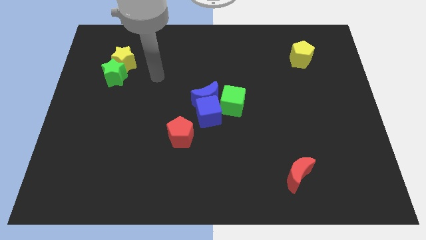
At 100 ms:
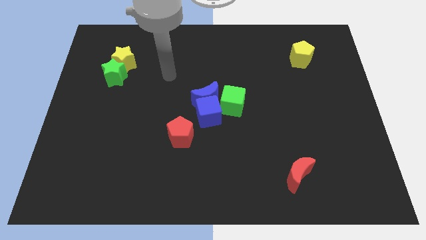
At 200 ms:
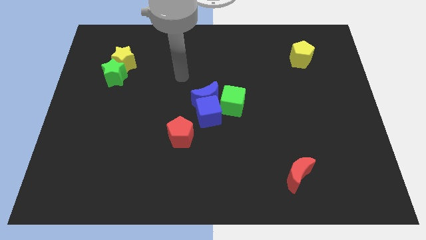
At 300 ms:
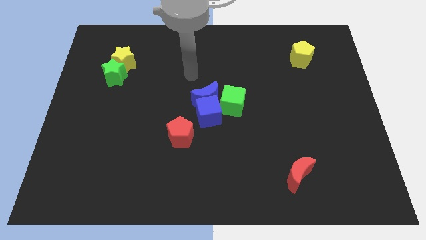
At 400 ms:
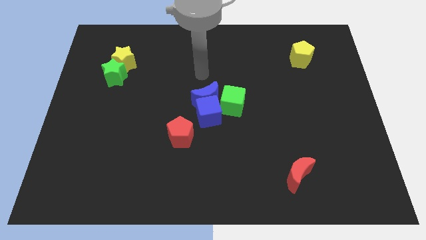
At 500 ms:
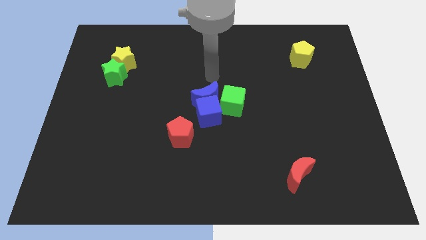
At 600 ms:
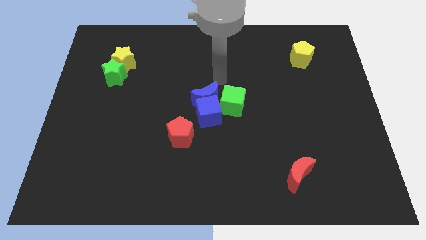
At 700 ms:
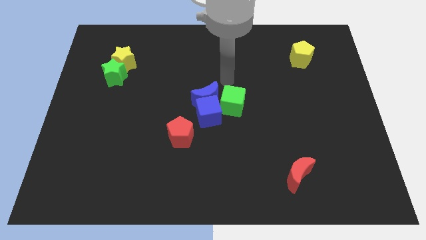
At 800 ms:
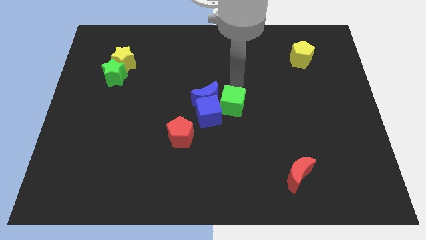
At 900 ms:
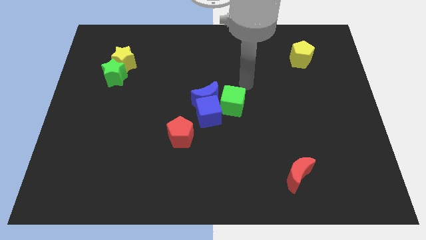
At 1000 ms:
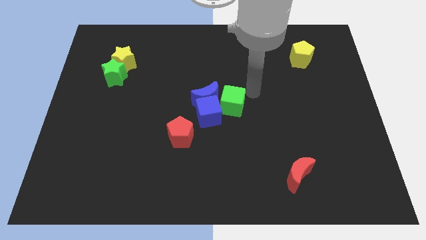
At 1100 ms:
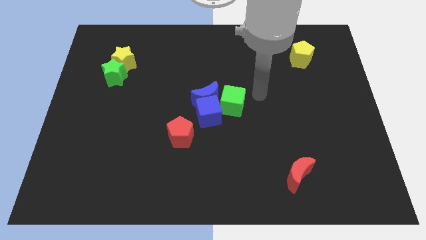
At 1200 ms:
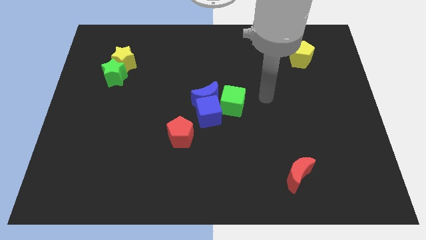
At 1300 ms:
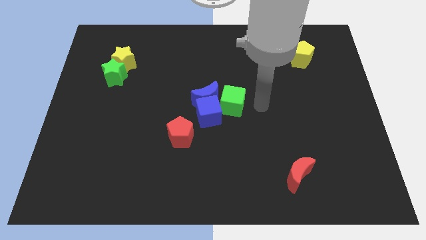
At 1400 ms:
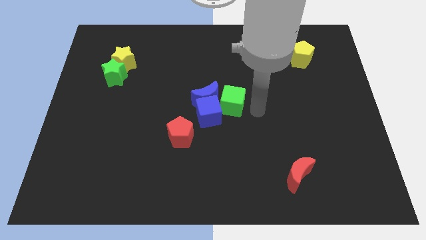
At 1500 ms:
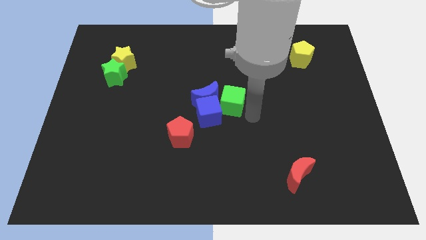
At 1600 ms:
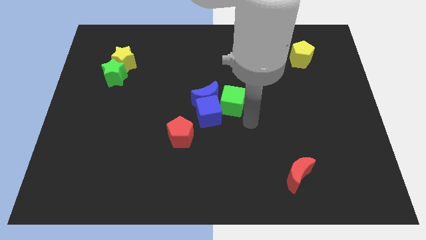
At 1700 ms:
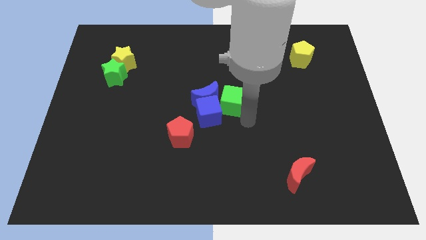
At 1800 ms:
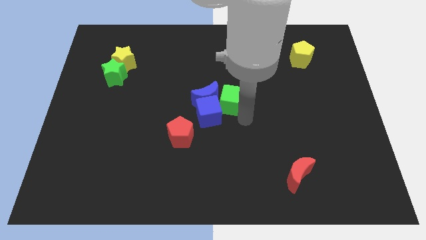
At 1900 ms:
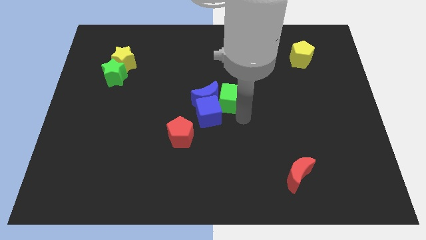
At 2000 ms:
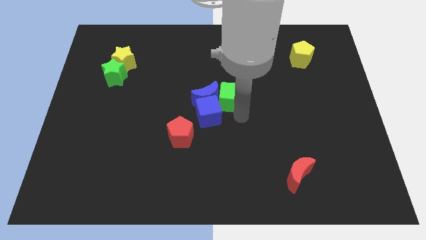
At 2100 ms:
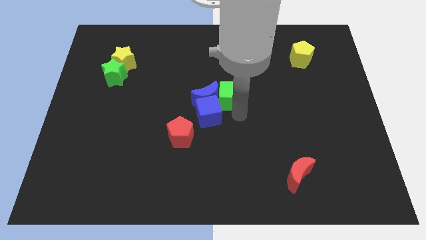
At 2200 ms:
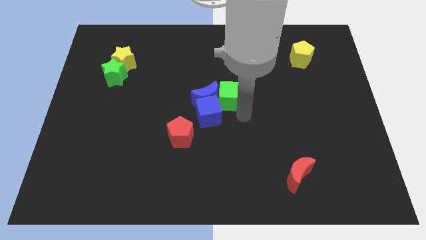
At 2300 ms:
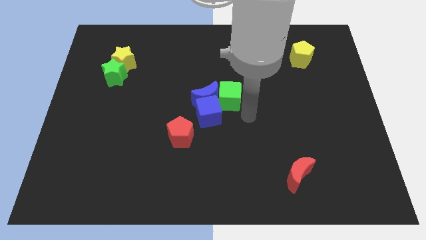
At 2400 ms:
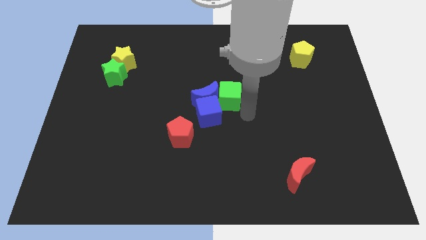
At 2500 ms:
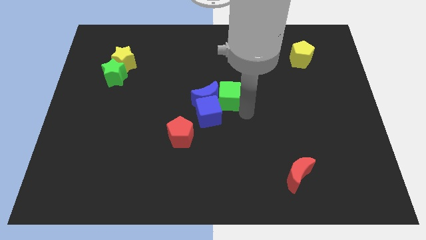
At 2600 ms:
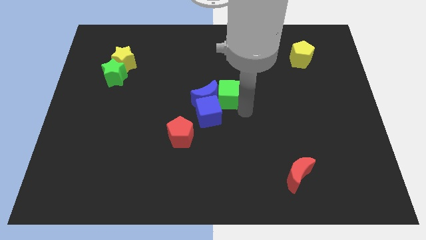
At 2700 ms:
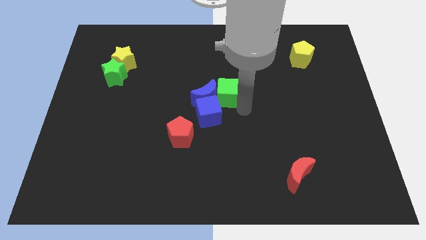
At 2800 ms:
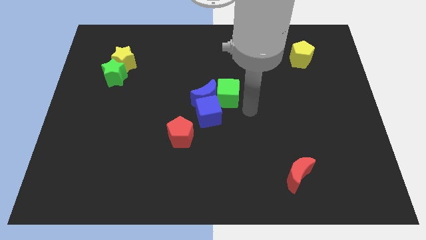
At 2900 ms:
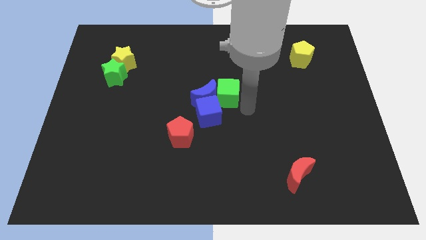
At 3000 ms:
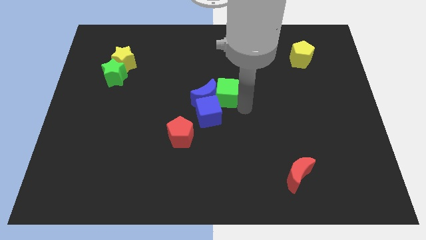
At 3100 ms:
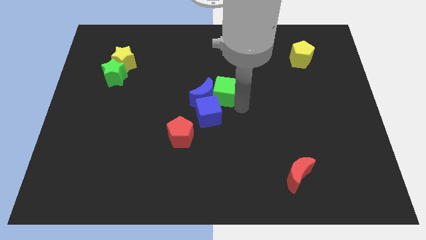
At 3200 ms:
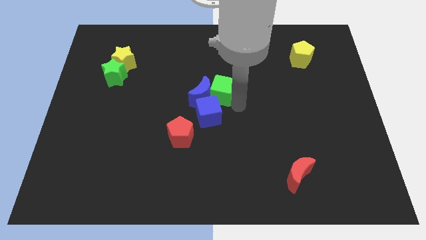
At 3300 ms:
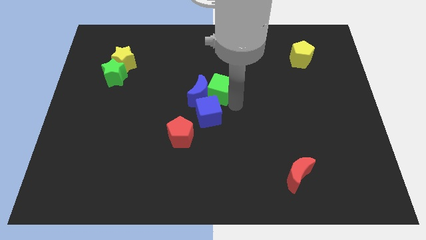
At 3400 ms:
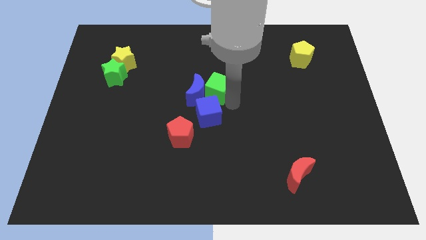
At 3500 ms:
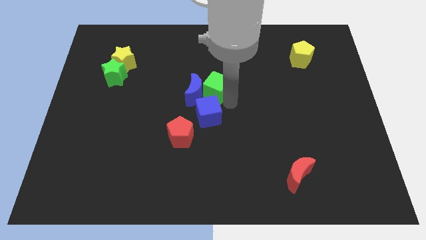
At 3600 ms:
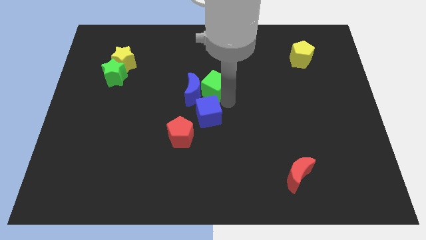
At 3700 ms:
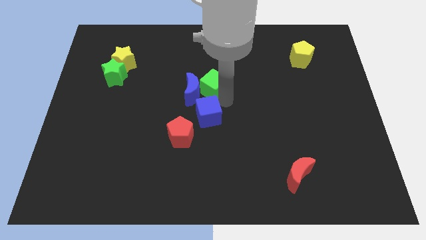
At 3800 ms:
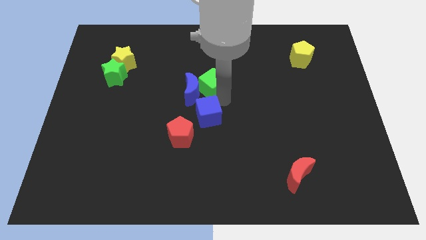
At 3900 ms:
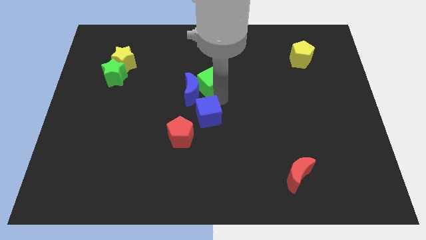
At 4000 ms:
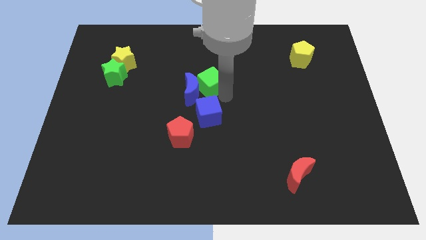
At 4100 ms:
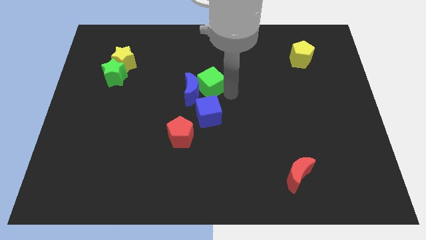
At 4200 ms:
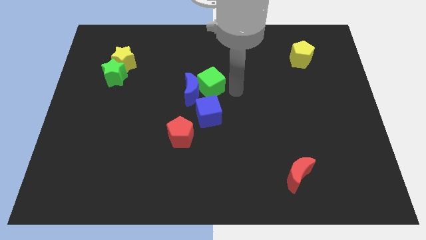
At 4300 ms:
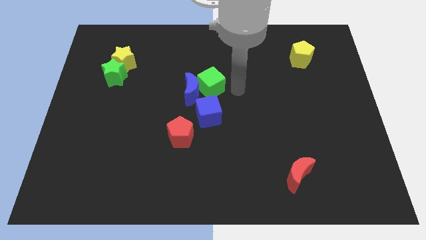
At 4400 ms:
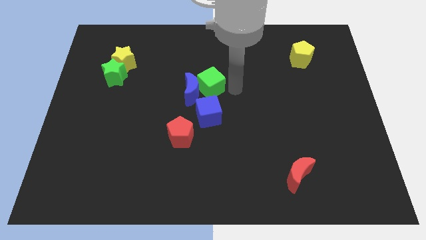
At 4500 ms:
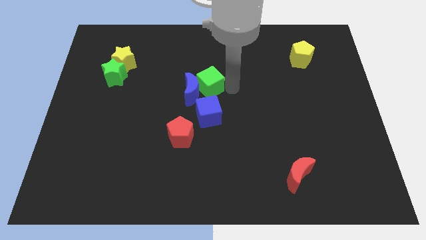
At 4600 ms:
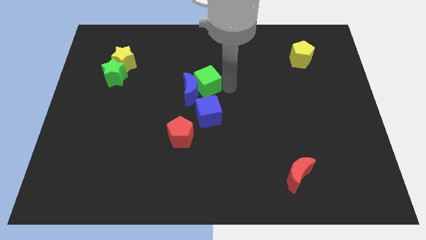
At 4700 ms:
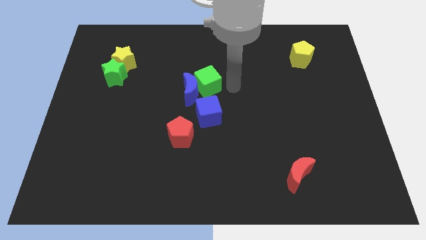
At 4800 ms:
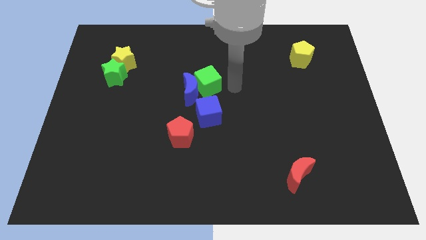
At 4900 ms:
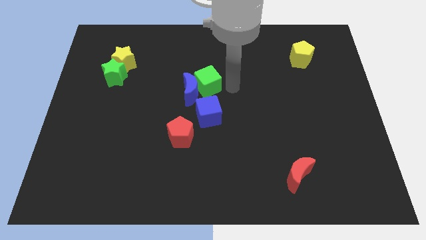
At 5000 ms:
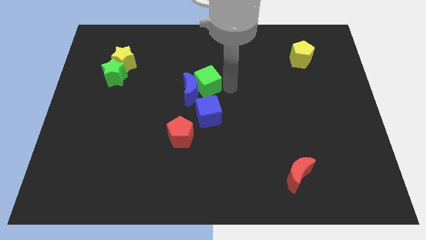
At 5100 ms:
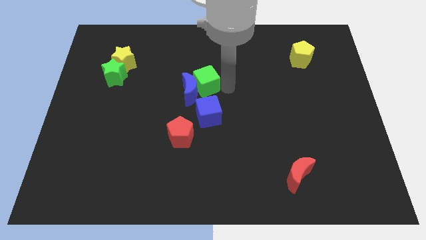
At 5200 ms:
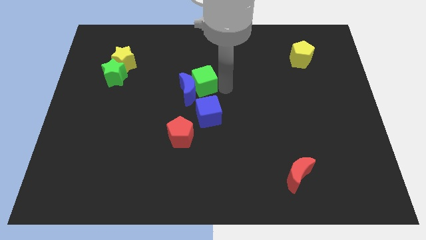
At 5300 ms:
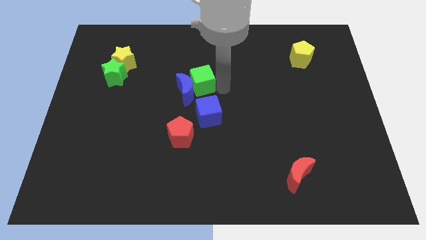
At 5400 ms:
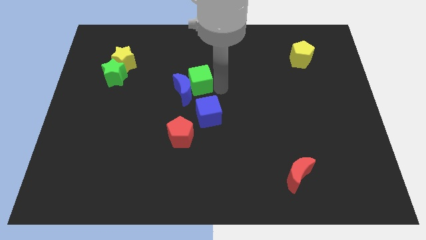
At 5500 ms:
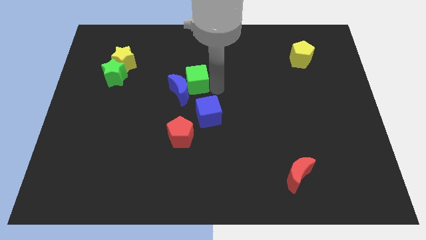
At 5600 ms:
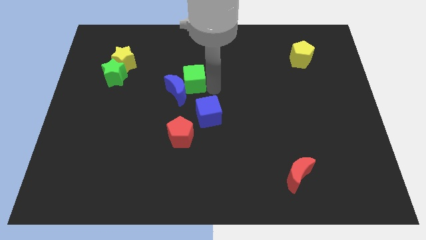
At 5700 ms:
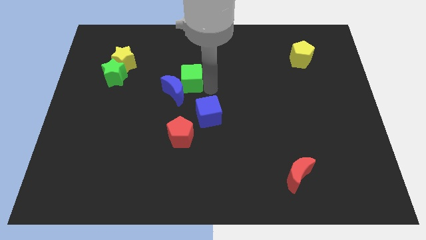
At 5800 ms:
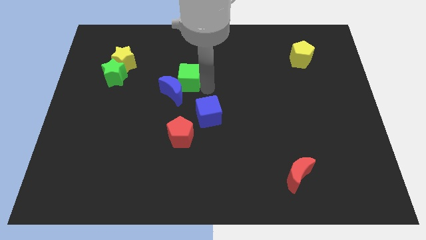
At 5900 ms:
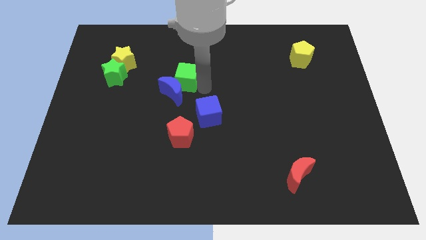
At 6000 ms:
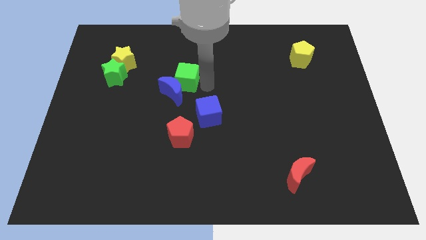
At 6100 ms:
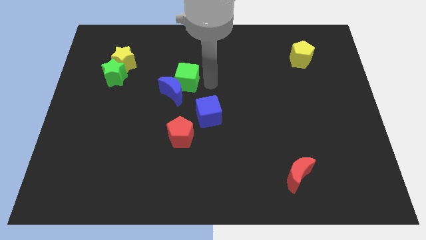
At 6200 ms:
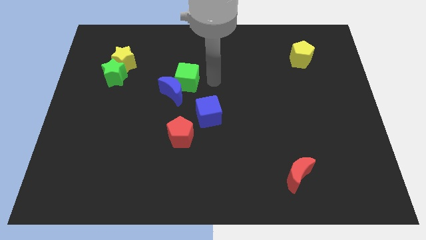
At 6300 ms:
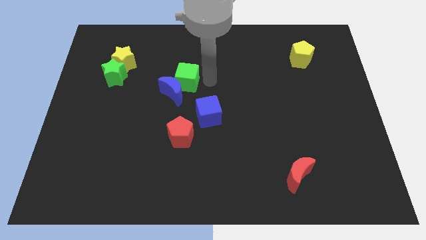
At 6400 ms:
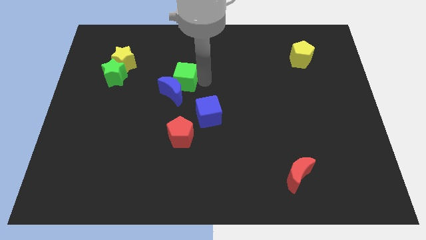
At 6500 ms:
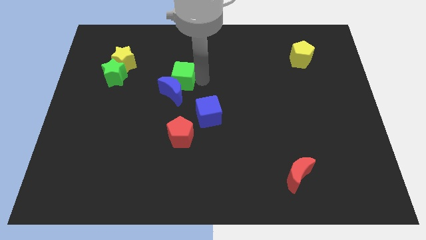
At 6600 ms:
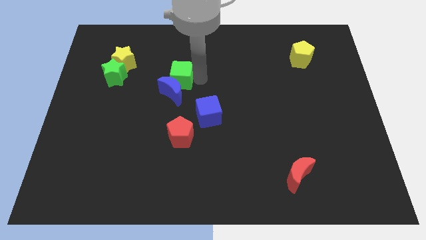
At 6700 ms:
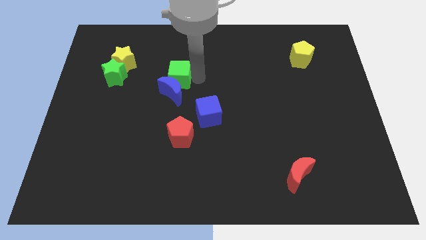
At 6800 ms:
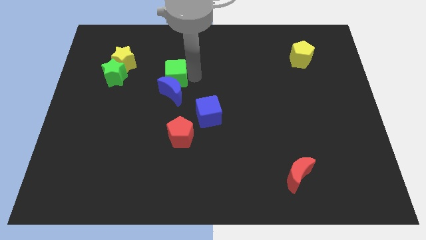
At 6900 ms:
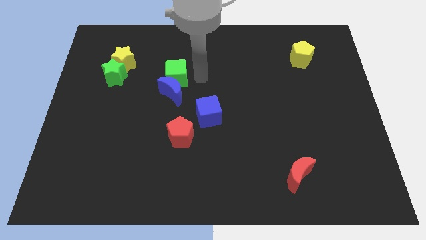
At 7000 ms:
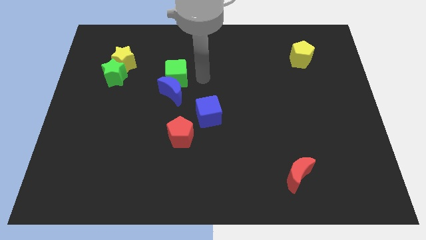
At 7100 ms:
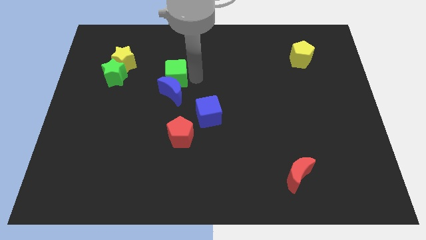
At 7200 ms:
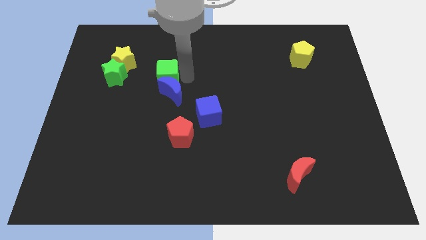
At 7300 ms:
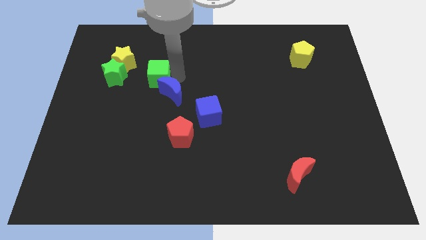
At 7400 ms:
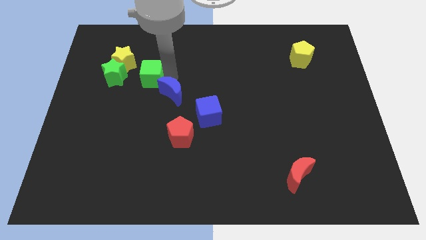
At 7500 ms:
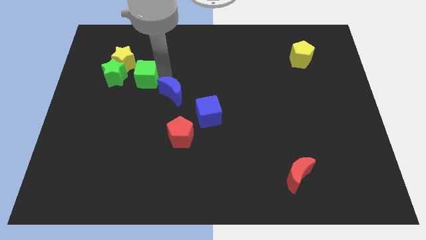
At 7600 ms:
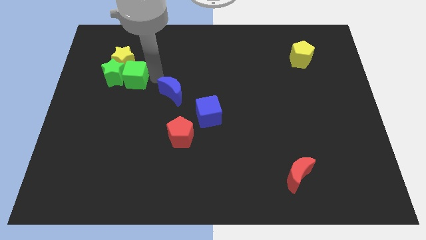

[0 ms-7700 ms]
move the green cube close to the green star
